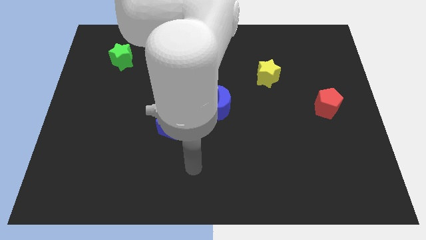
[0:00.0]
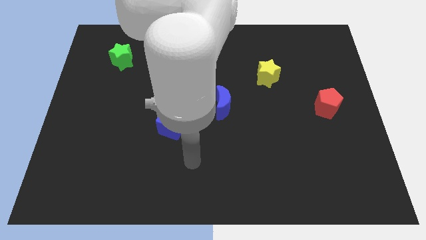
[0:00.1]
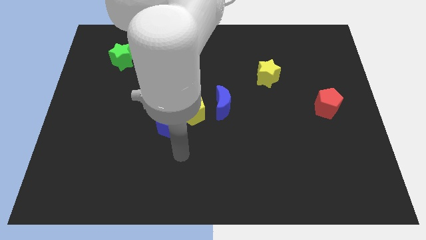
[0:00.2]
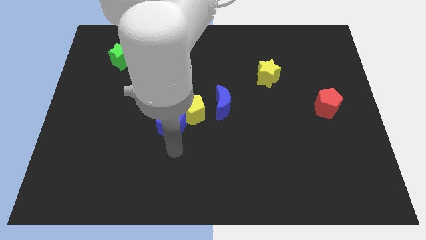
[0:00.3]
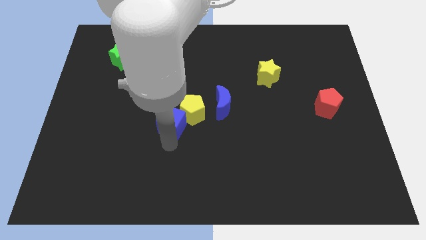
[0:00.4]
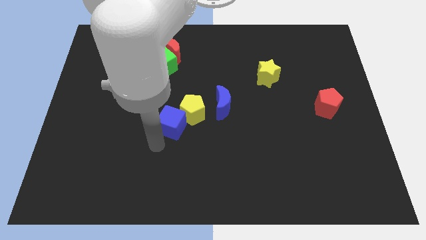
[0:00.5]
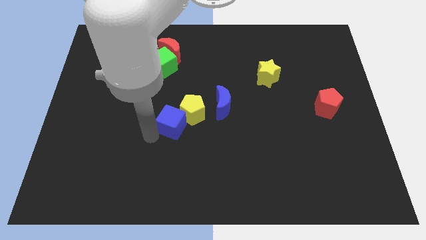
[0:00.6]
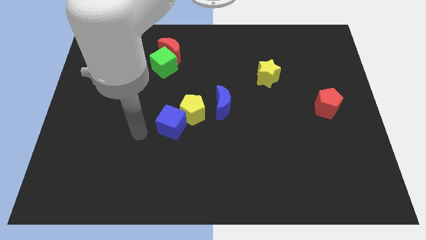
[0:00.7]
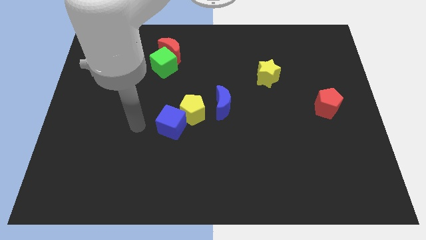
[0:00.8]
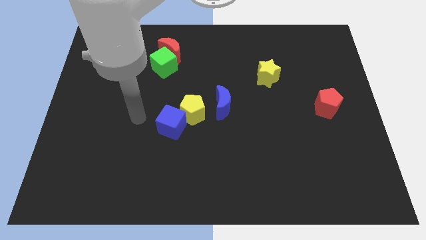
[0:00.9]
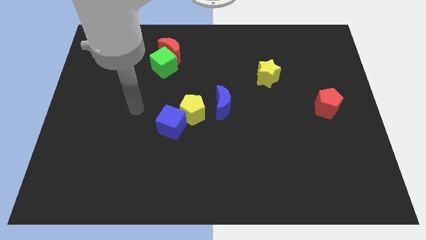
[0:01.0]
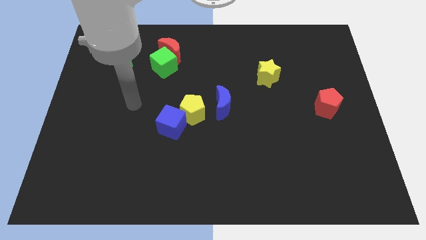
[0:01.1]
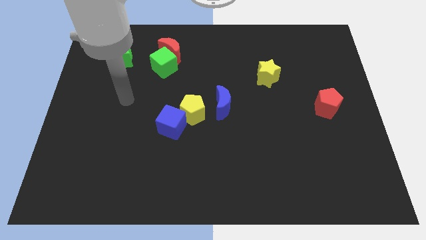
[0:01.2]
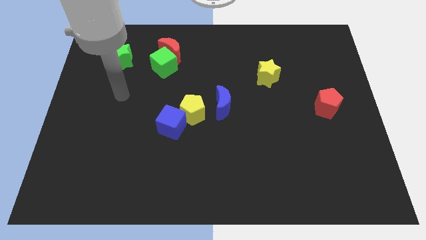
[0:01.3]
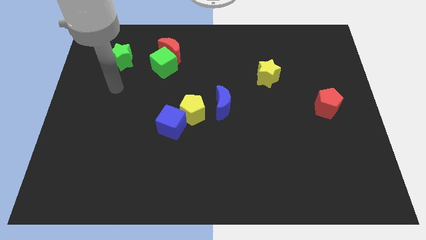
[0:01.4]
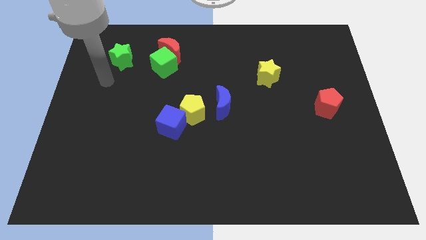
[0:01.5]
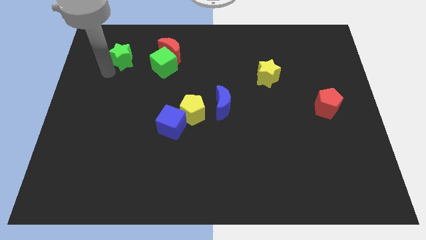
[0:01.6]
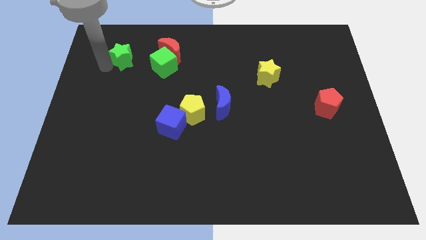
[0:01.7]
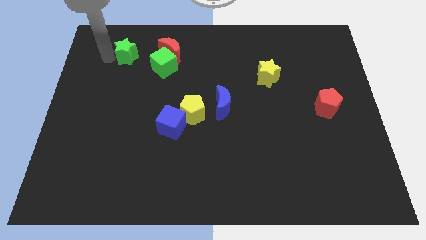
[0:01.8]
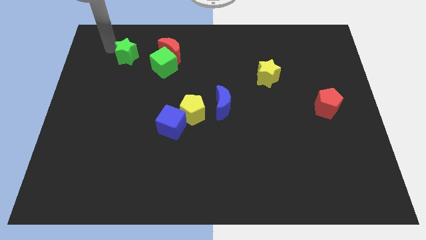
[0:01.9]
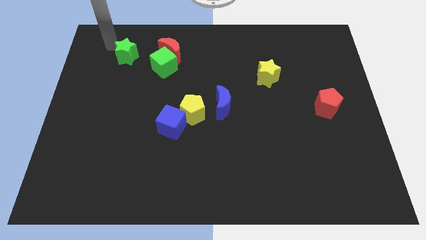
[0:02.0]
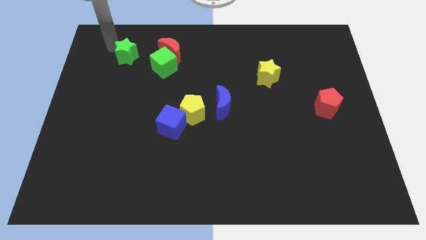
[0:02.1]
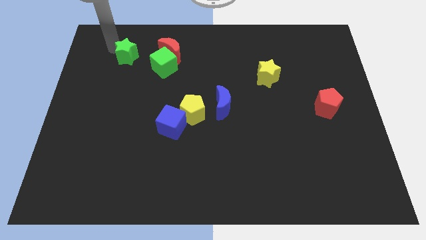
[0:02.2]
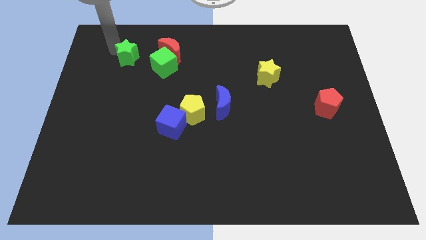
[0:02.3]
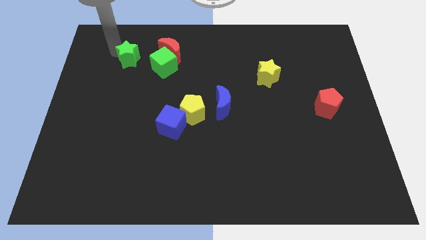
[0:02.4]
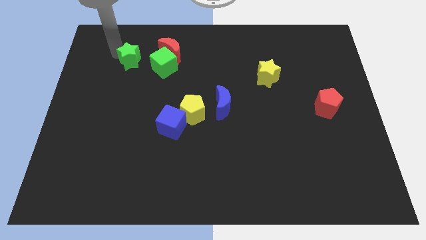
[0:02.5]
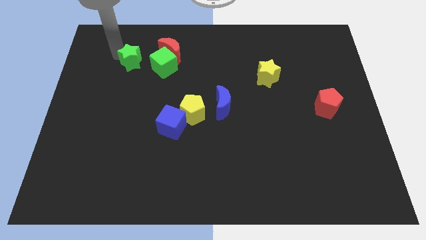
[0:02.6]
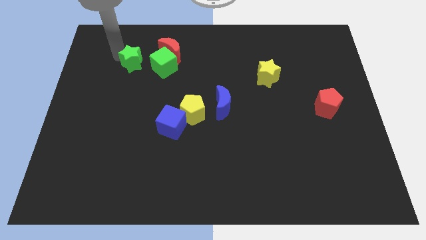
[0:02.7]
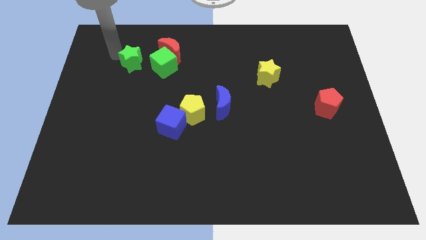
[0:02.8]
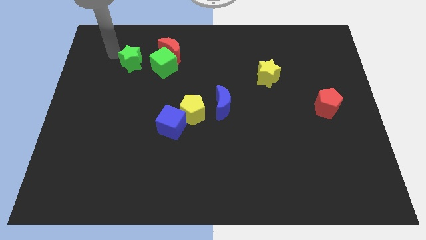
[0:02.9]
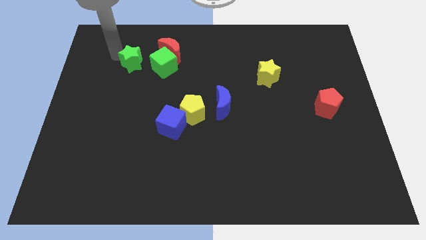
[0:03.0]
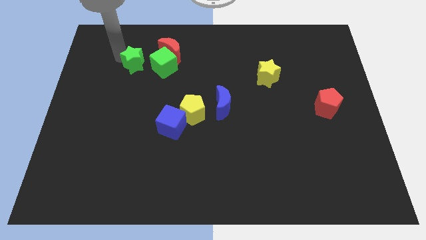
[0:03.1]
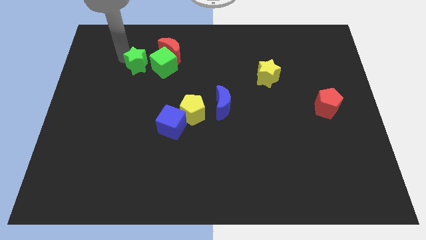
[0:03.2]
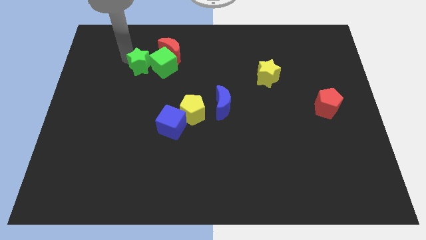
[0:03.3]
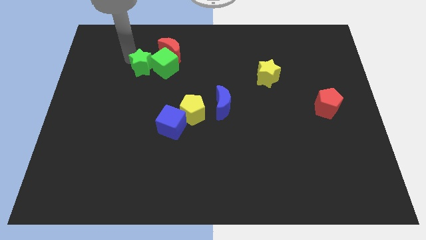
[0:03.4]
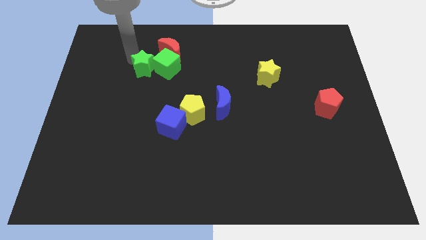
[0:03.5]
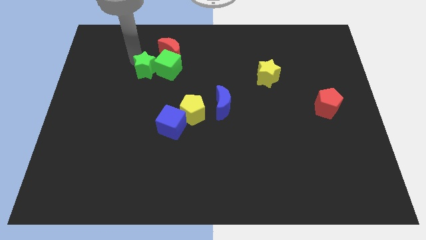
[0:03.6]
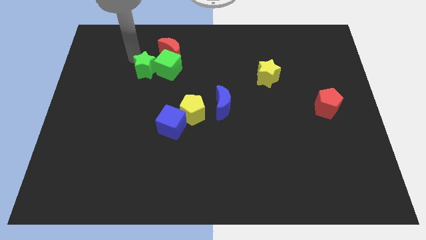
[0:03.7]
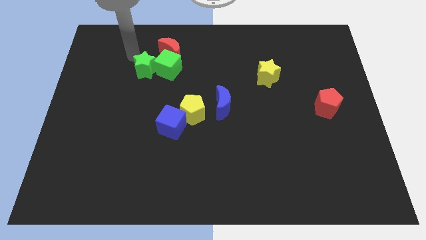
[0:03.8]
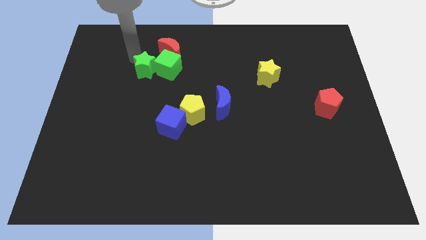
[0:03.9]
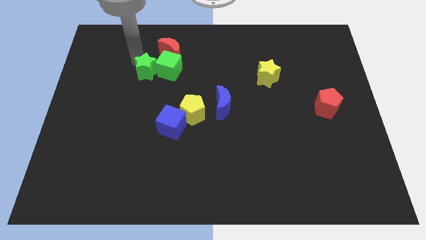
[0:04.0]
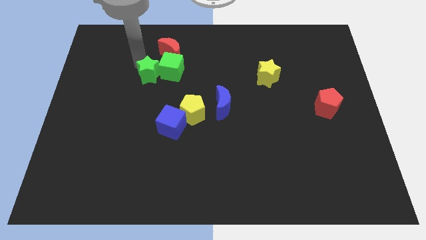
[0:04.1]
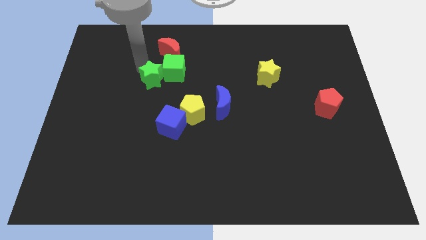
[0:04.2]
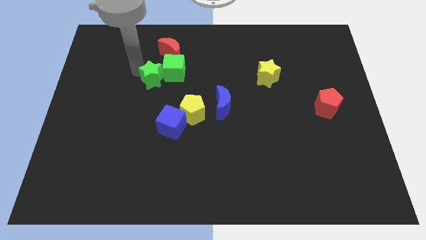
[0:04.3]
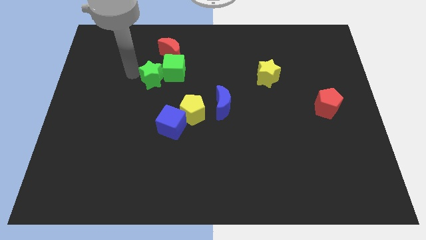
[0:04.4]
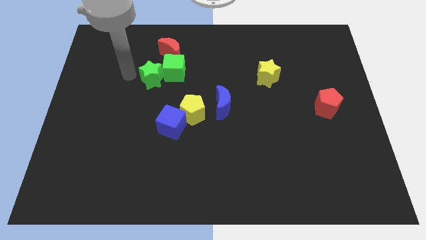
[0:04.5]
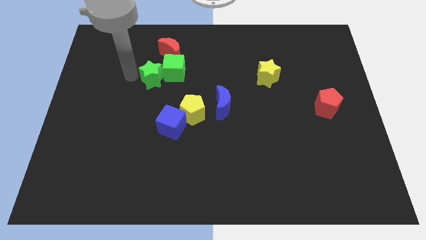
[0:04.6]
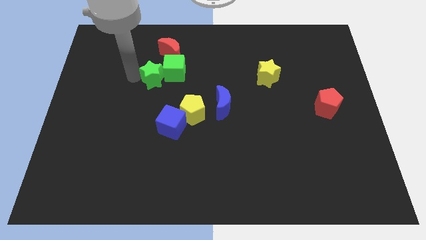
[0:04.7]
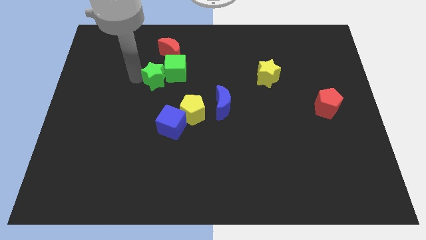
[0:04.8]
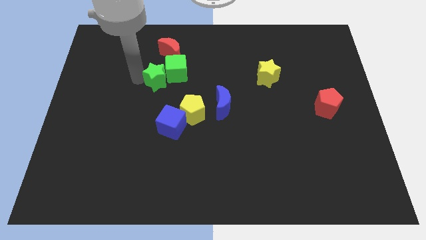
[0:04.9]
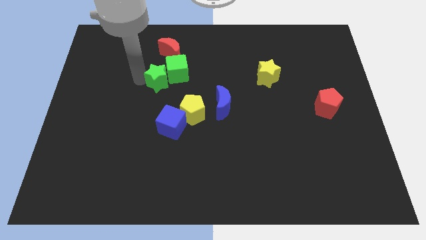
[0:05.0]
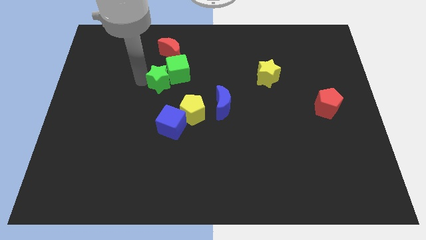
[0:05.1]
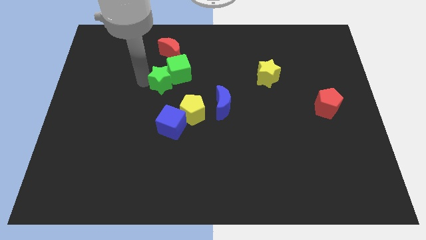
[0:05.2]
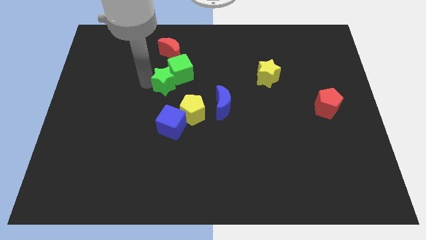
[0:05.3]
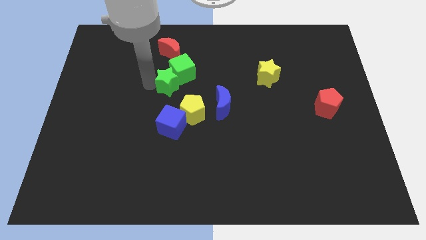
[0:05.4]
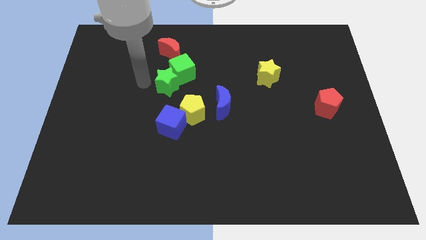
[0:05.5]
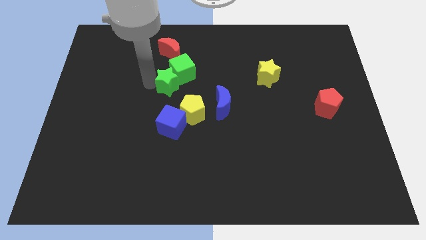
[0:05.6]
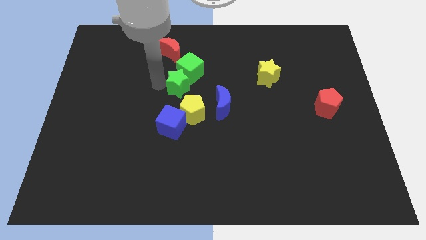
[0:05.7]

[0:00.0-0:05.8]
move the green star to the top left of the blue moon

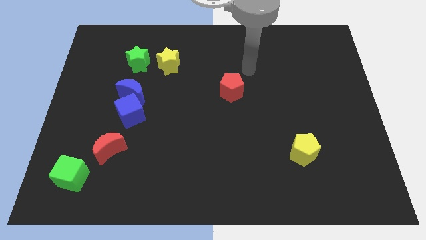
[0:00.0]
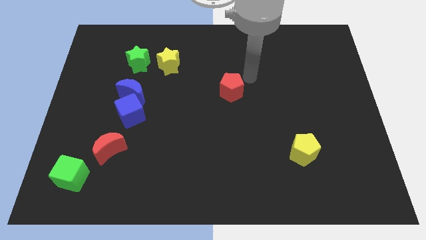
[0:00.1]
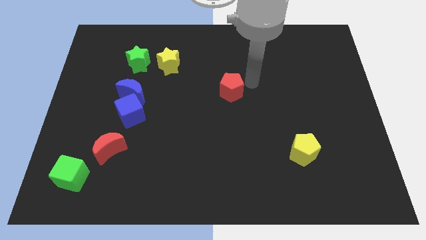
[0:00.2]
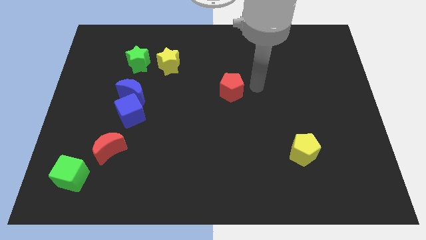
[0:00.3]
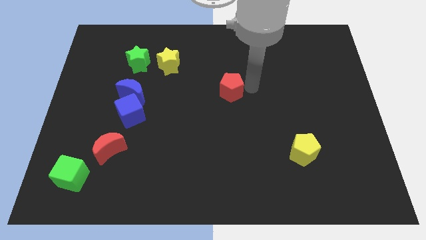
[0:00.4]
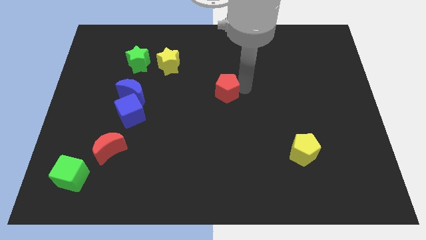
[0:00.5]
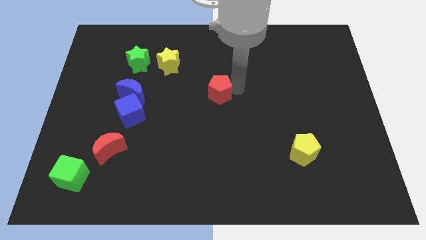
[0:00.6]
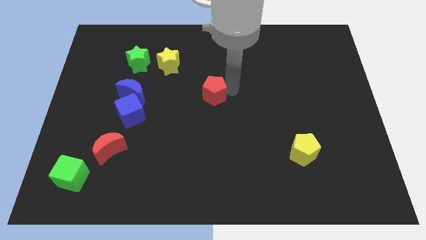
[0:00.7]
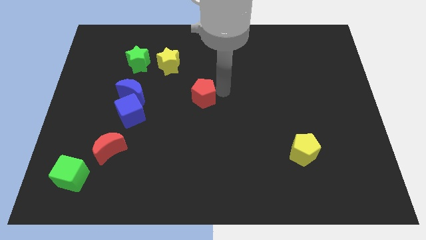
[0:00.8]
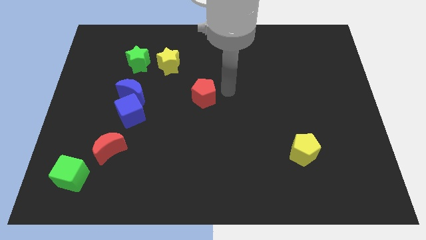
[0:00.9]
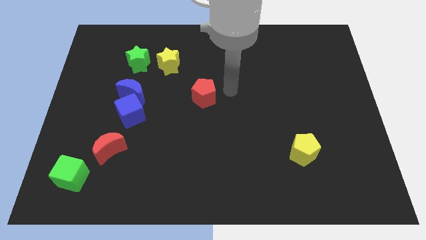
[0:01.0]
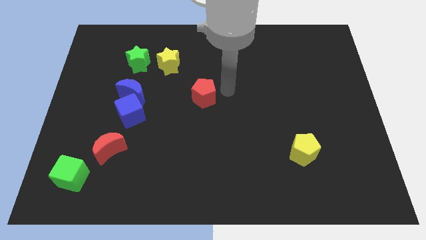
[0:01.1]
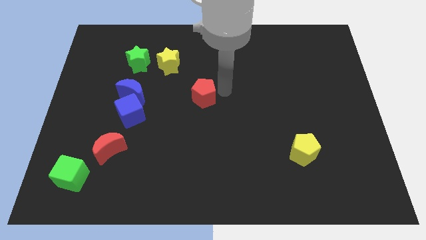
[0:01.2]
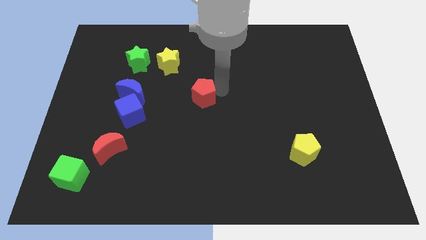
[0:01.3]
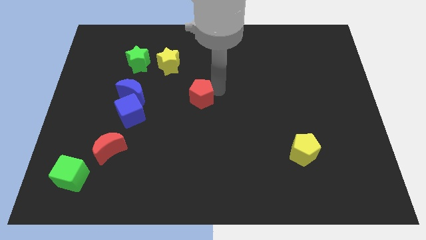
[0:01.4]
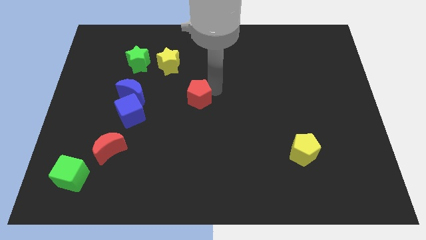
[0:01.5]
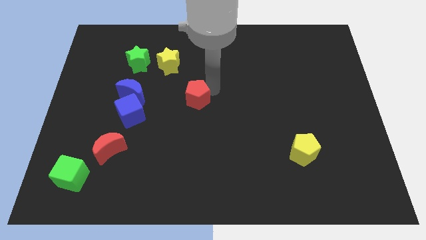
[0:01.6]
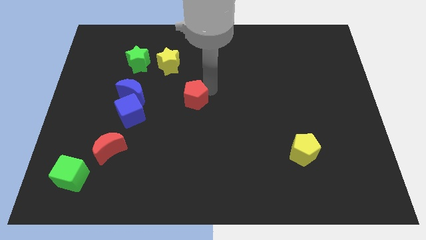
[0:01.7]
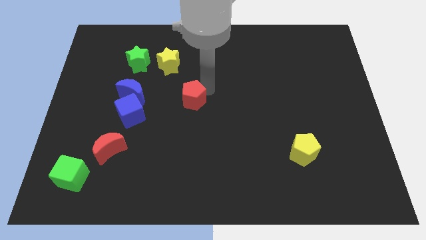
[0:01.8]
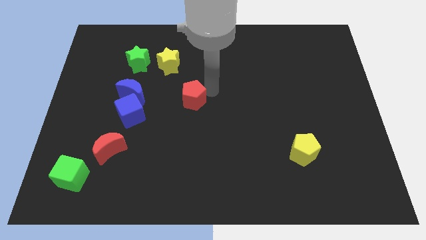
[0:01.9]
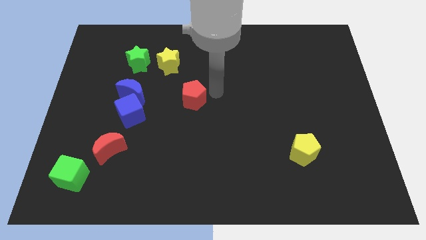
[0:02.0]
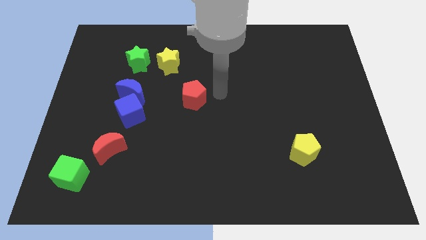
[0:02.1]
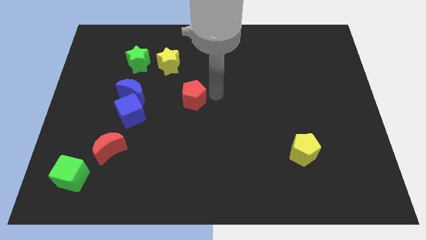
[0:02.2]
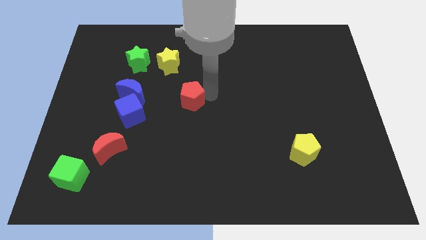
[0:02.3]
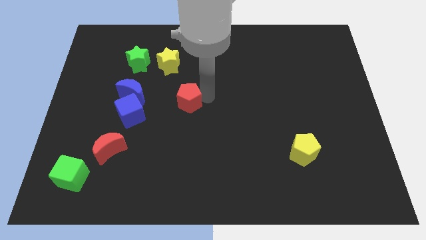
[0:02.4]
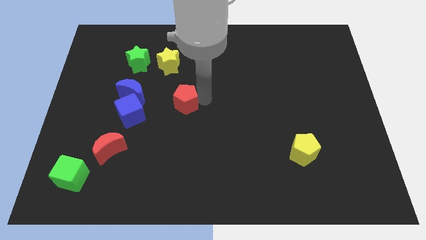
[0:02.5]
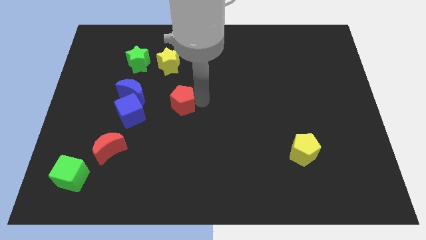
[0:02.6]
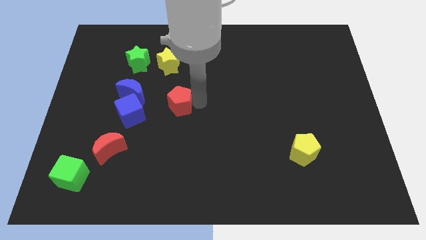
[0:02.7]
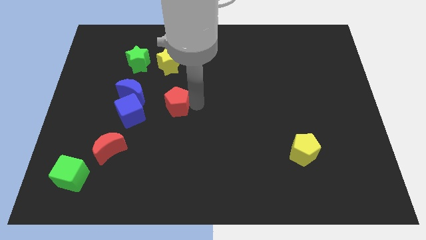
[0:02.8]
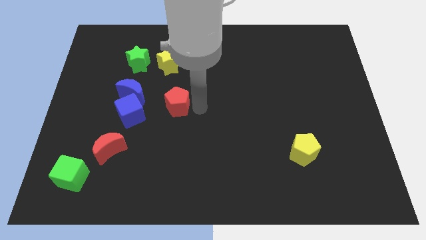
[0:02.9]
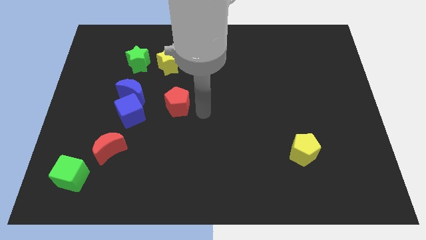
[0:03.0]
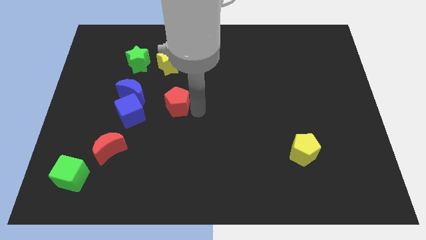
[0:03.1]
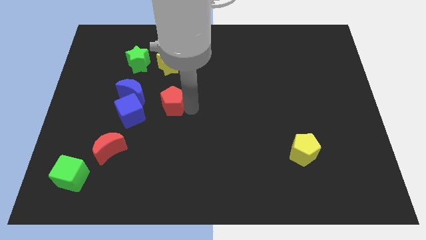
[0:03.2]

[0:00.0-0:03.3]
push the red pentagon to the top right of the blue cube
